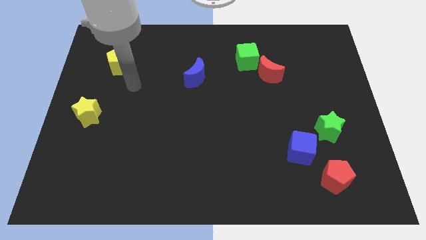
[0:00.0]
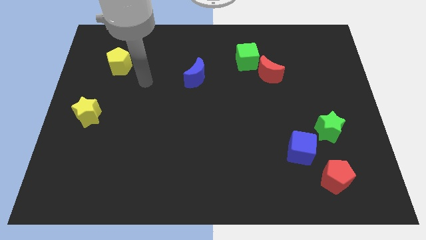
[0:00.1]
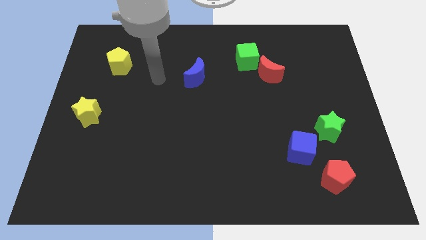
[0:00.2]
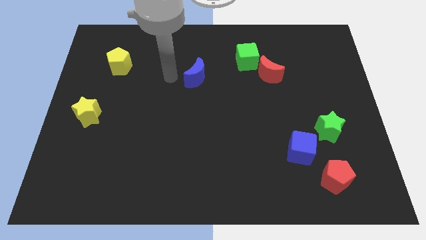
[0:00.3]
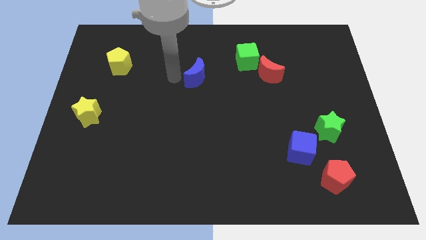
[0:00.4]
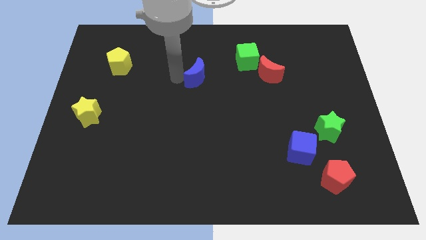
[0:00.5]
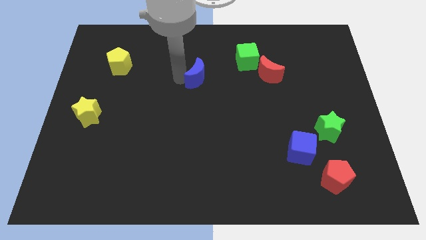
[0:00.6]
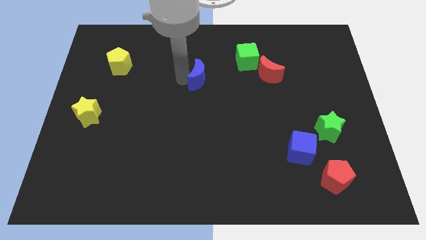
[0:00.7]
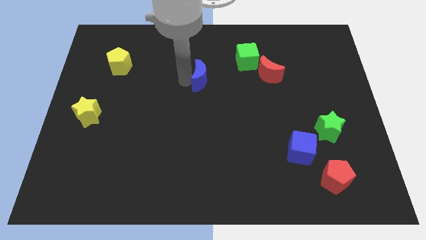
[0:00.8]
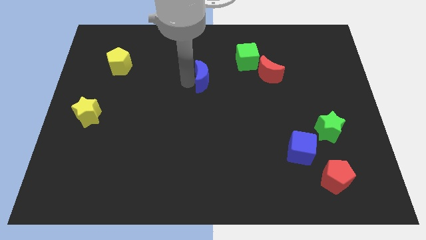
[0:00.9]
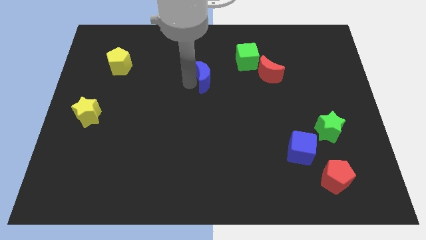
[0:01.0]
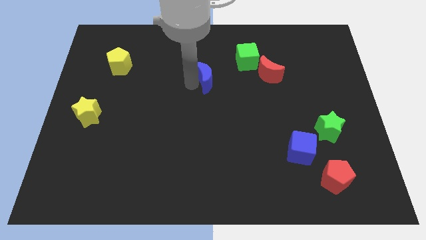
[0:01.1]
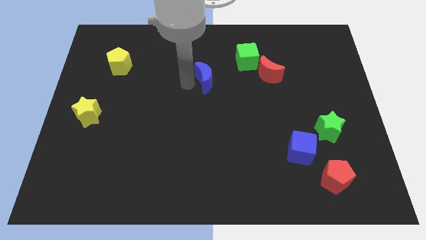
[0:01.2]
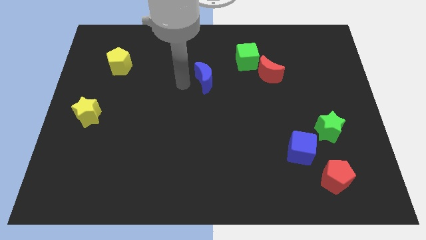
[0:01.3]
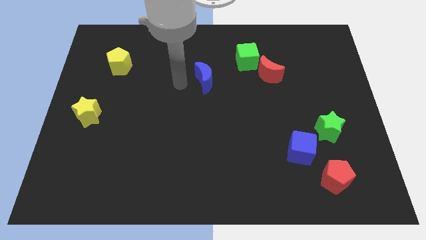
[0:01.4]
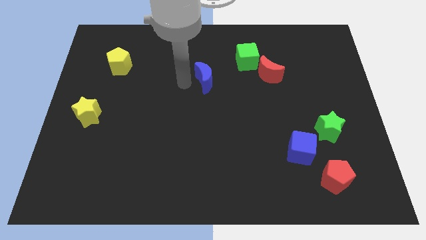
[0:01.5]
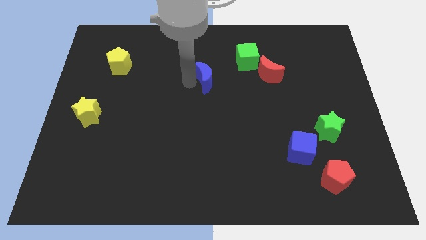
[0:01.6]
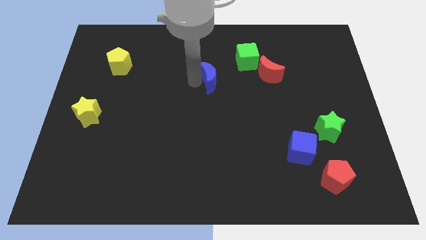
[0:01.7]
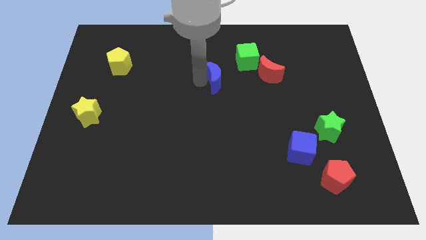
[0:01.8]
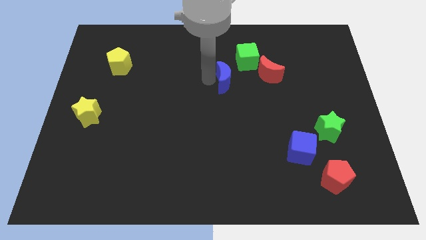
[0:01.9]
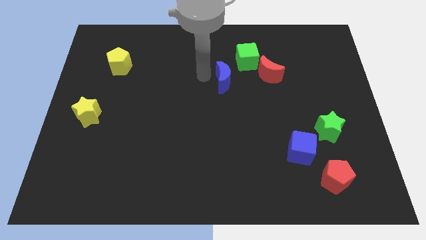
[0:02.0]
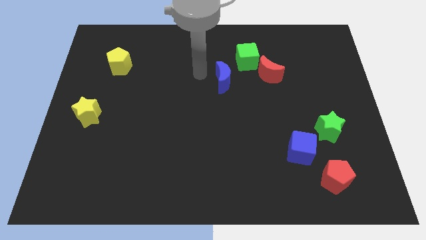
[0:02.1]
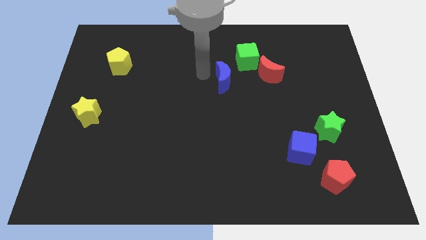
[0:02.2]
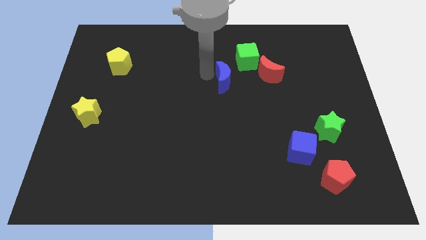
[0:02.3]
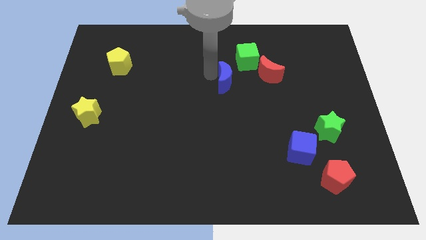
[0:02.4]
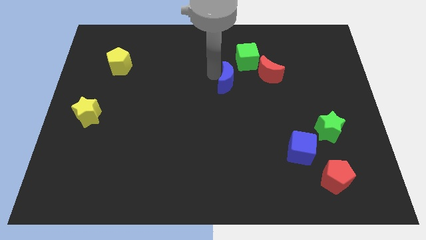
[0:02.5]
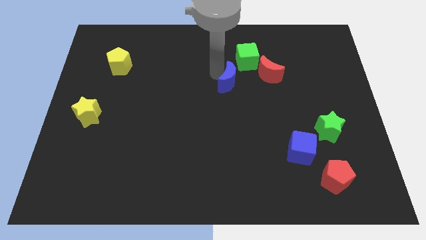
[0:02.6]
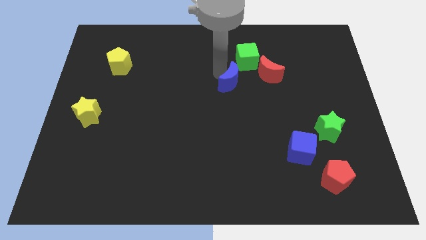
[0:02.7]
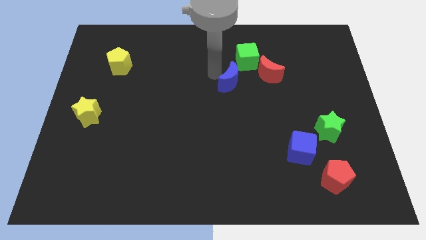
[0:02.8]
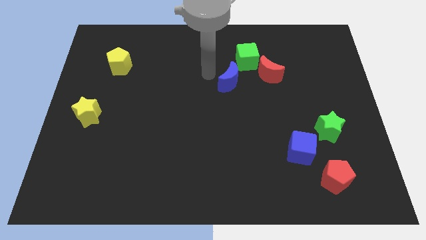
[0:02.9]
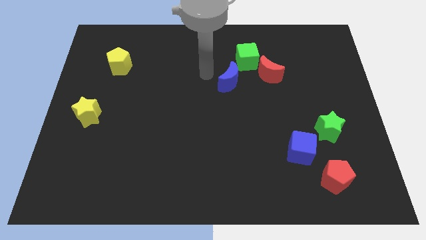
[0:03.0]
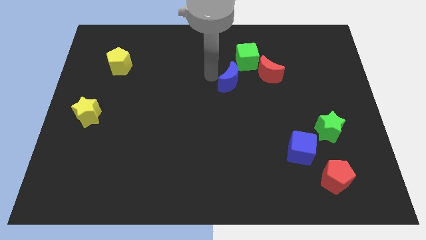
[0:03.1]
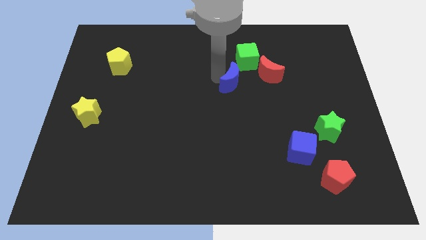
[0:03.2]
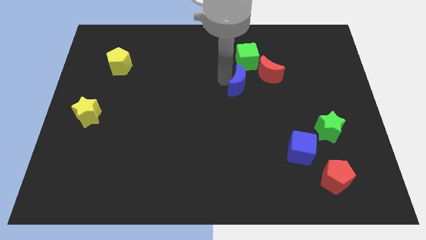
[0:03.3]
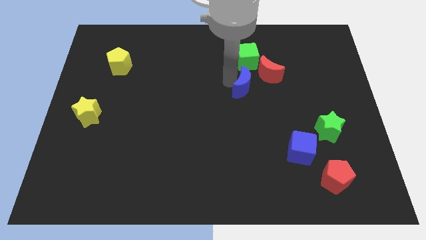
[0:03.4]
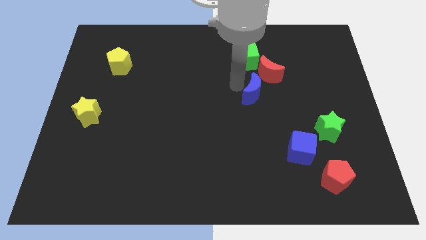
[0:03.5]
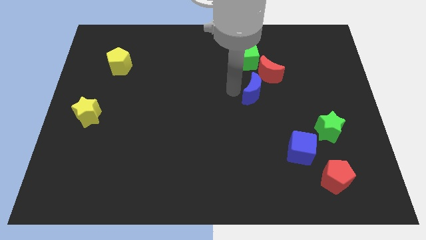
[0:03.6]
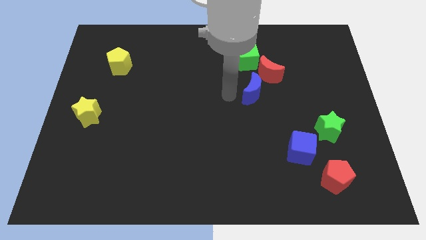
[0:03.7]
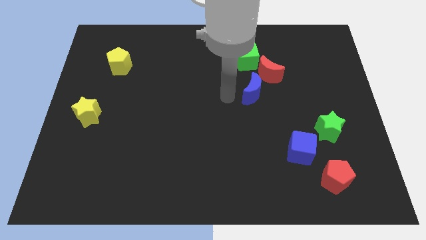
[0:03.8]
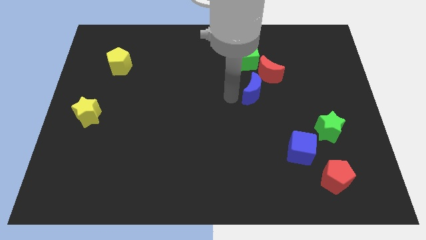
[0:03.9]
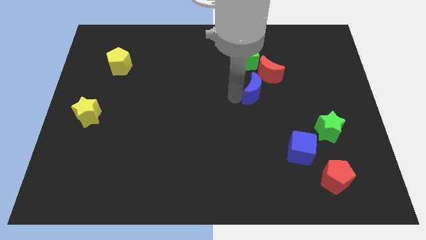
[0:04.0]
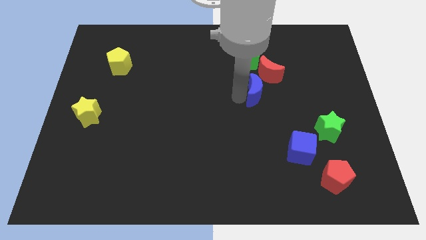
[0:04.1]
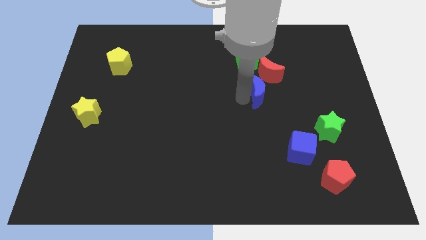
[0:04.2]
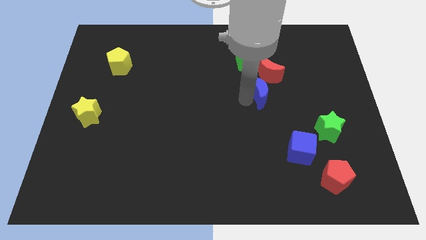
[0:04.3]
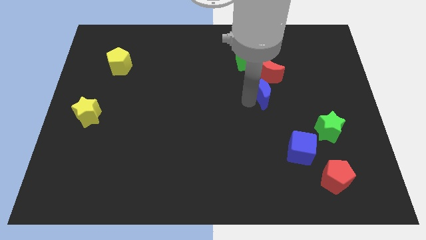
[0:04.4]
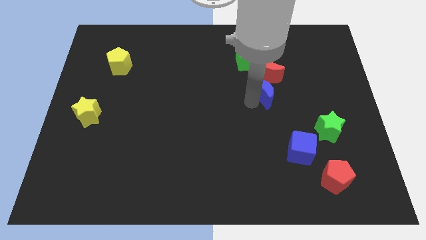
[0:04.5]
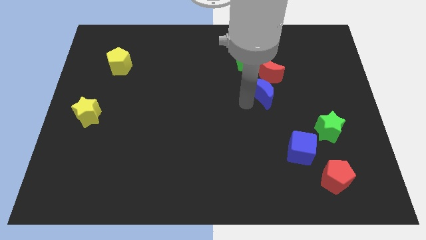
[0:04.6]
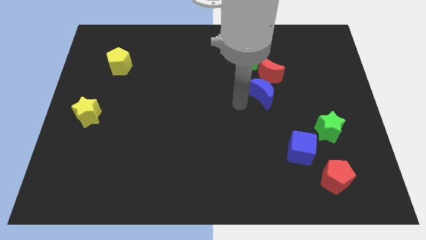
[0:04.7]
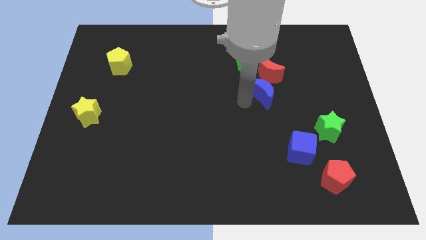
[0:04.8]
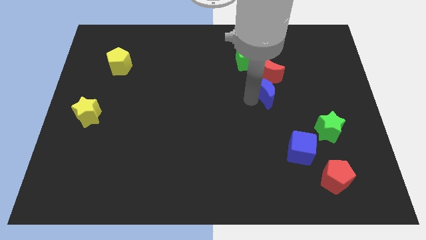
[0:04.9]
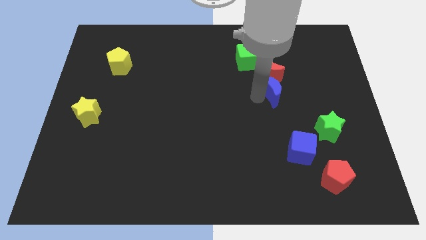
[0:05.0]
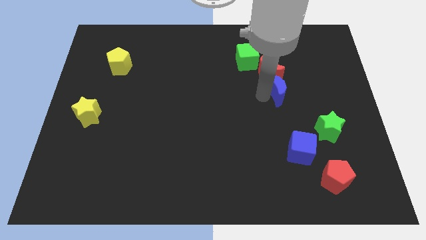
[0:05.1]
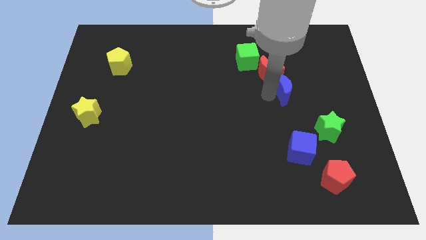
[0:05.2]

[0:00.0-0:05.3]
move the blue moon to the right

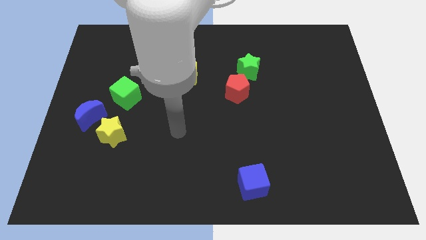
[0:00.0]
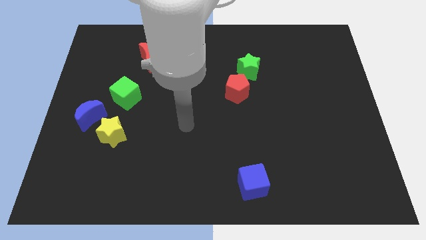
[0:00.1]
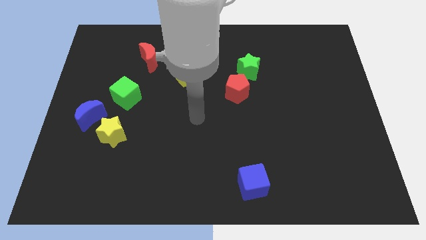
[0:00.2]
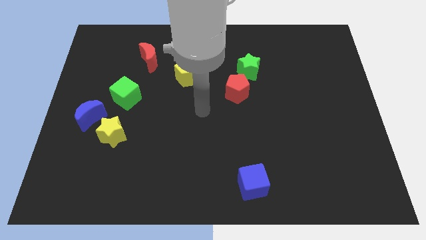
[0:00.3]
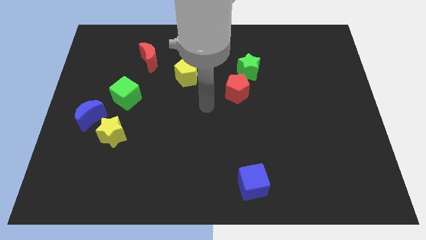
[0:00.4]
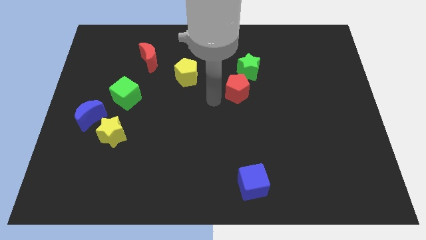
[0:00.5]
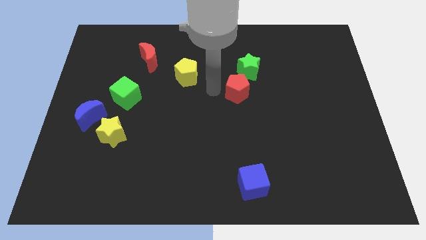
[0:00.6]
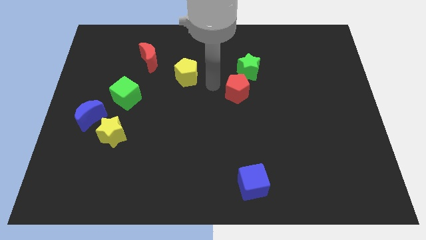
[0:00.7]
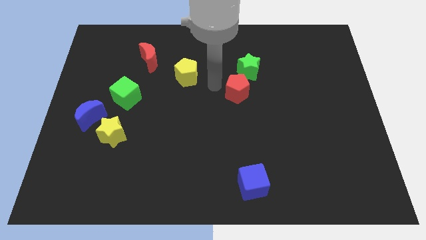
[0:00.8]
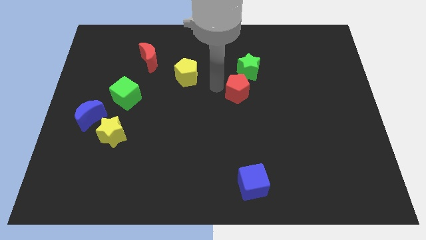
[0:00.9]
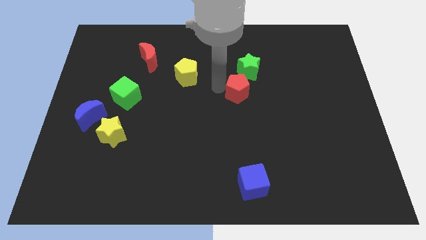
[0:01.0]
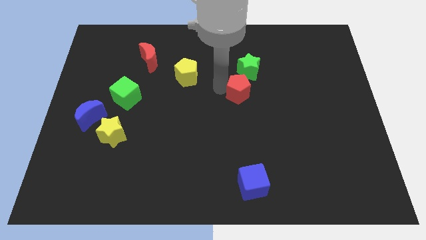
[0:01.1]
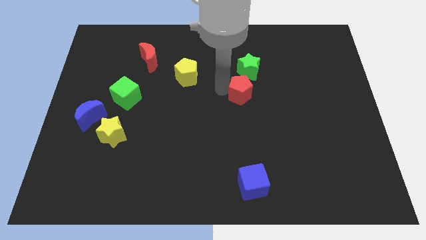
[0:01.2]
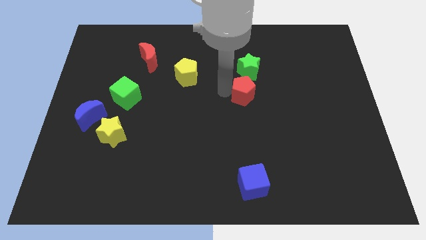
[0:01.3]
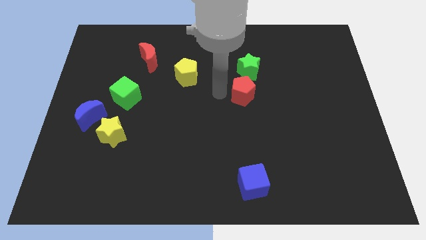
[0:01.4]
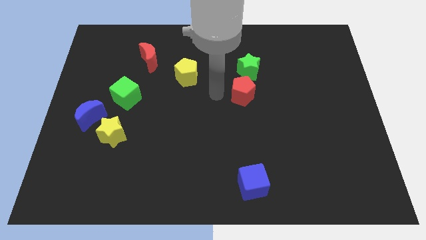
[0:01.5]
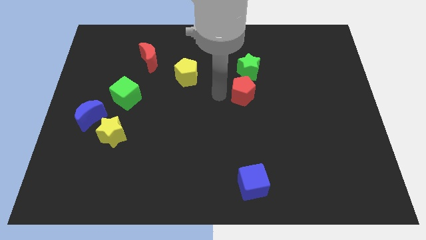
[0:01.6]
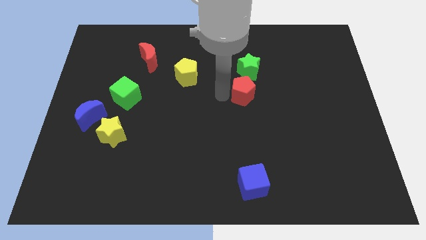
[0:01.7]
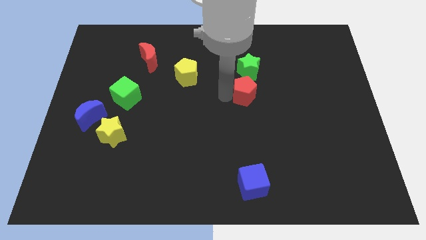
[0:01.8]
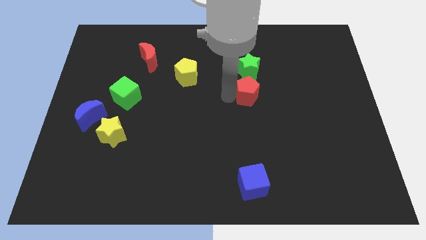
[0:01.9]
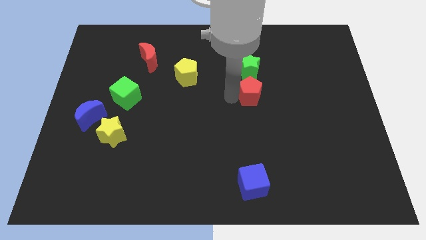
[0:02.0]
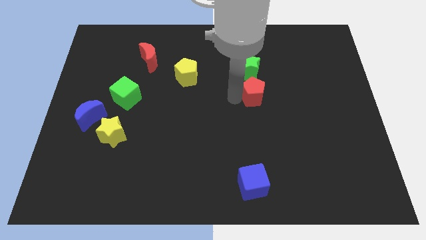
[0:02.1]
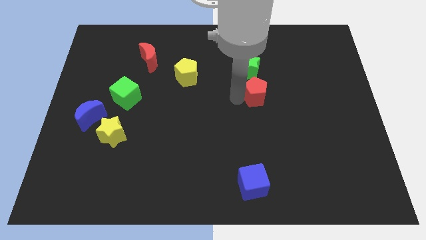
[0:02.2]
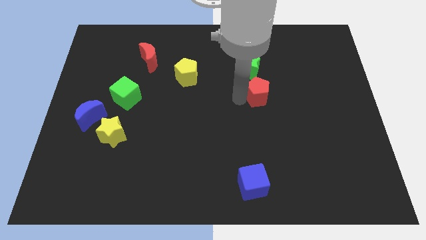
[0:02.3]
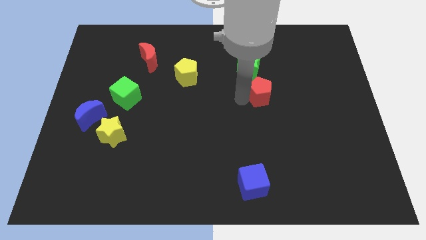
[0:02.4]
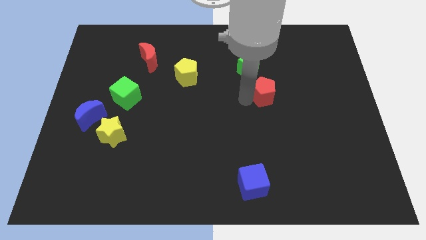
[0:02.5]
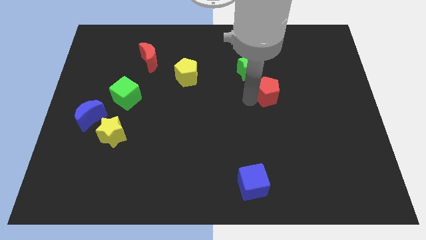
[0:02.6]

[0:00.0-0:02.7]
slightly move the red pentagon to the right

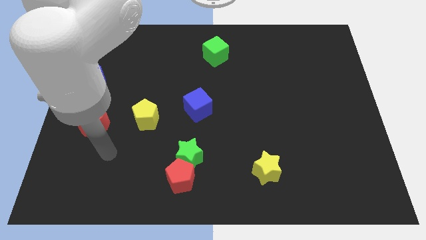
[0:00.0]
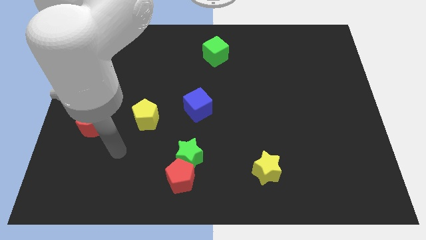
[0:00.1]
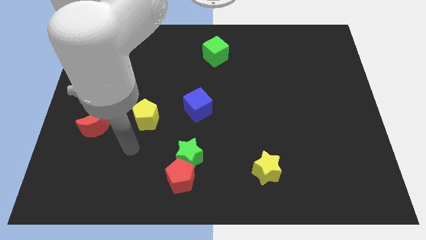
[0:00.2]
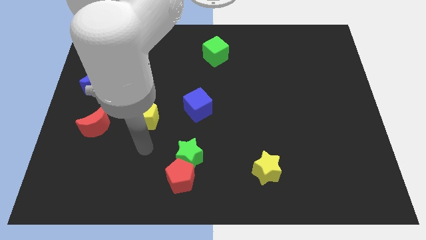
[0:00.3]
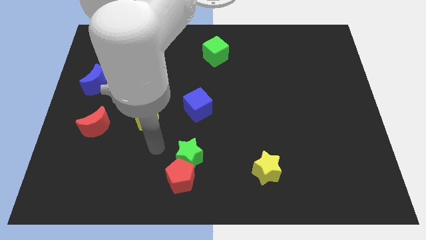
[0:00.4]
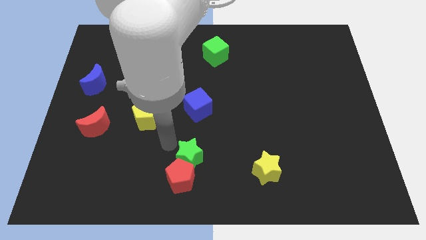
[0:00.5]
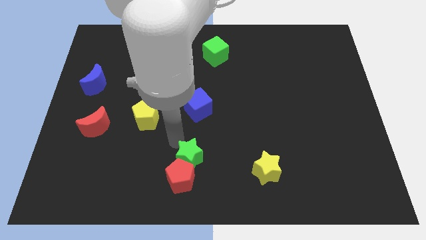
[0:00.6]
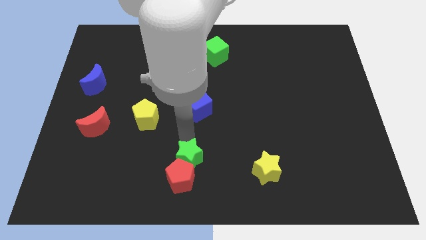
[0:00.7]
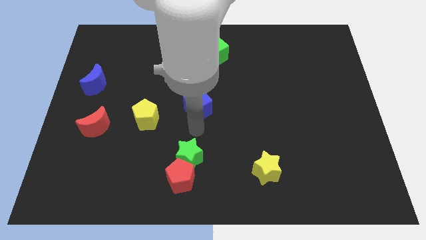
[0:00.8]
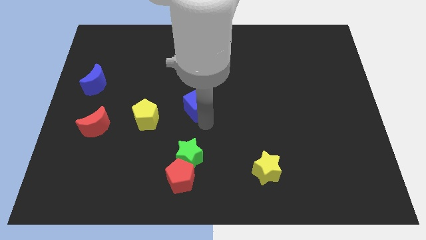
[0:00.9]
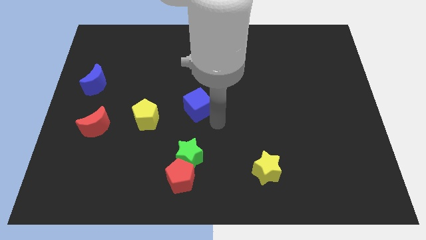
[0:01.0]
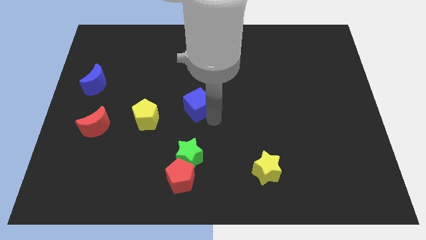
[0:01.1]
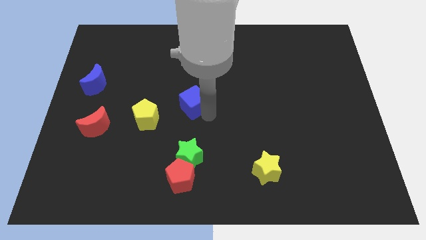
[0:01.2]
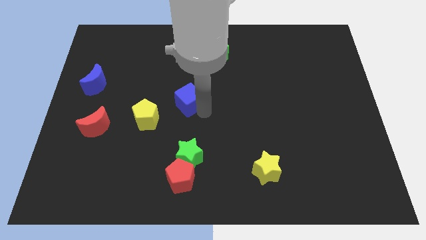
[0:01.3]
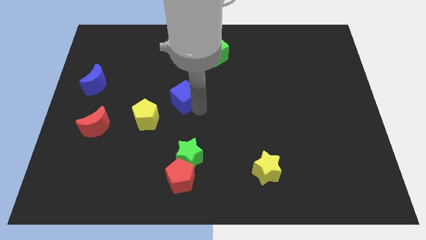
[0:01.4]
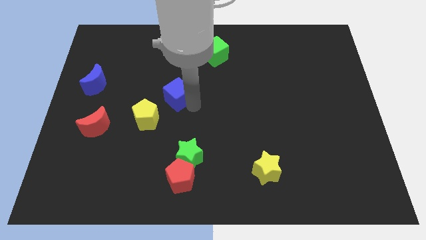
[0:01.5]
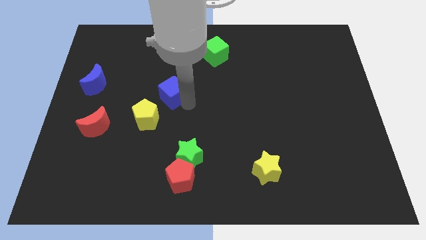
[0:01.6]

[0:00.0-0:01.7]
slightly push the blue cube diagonally up and left
